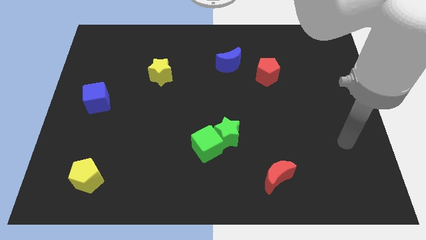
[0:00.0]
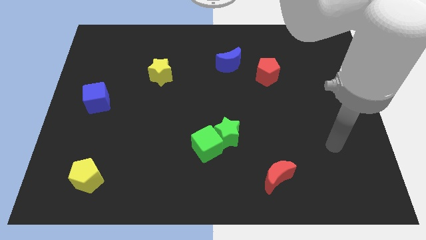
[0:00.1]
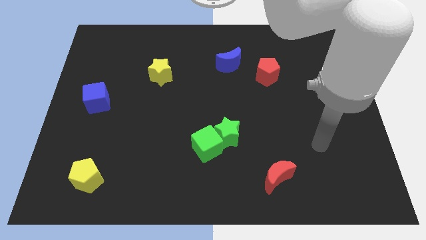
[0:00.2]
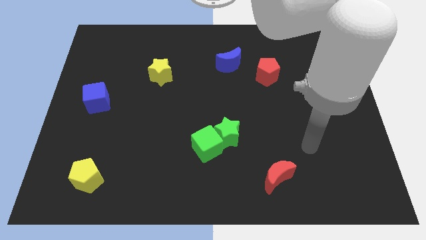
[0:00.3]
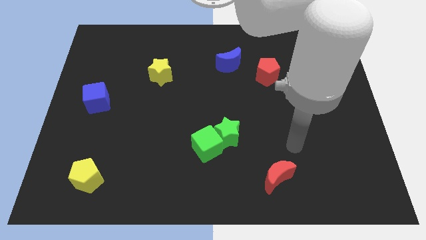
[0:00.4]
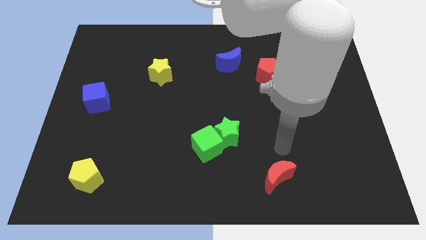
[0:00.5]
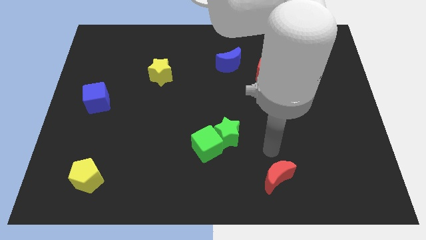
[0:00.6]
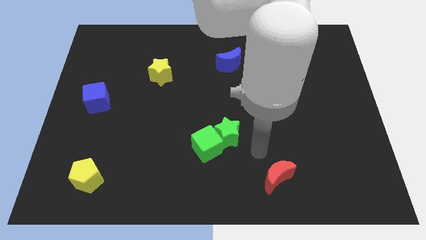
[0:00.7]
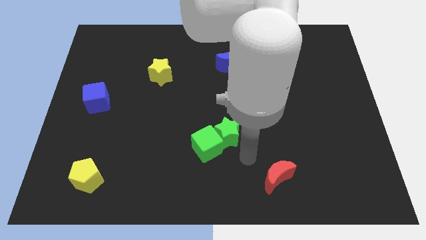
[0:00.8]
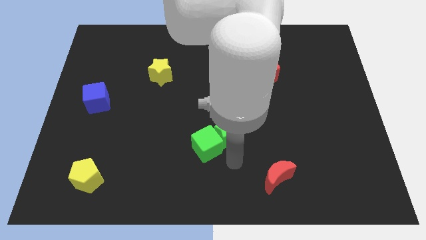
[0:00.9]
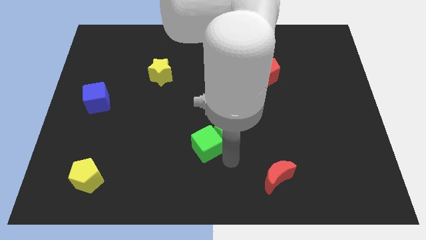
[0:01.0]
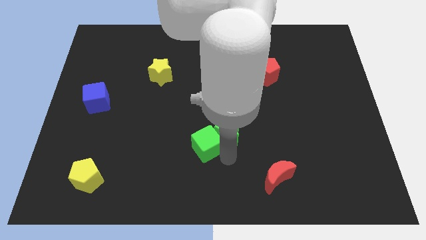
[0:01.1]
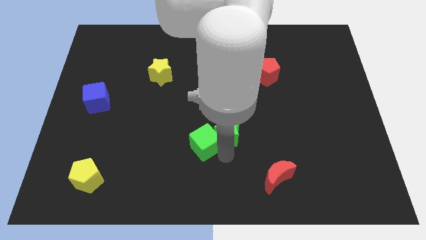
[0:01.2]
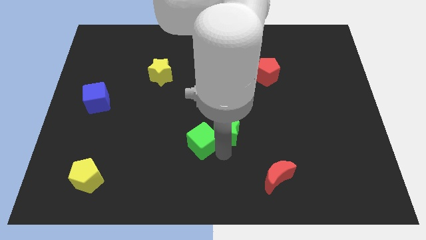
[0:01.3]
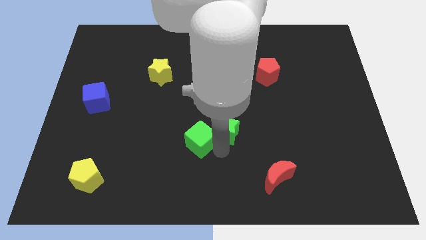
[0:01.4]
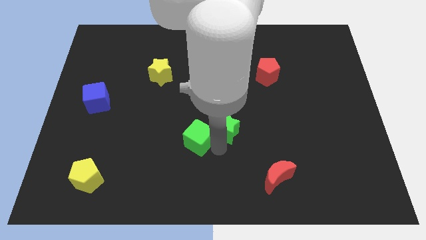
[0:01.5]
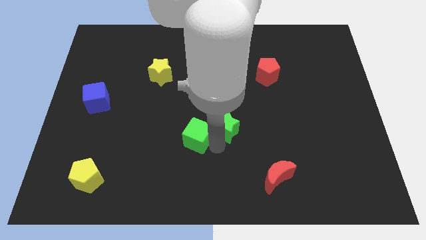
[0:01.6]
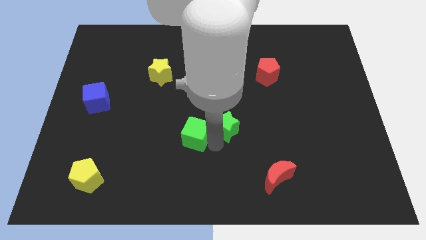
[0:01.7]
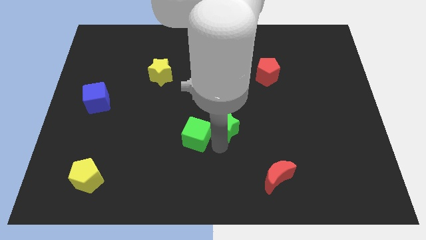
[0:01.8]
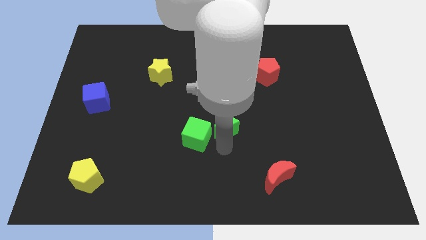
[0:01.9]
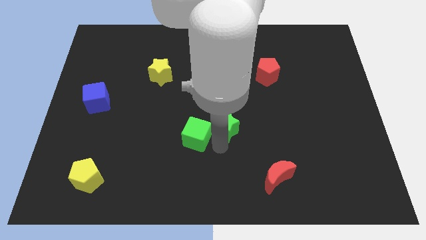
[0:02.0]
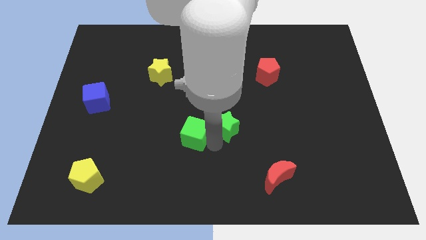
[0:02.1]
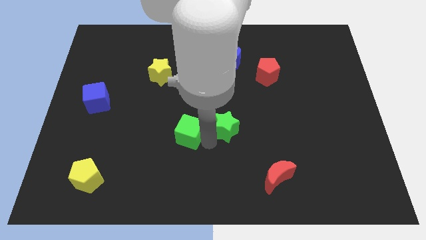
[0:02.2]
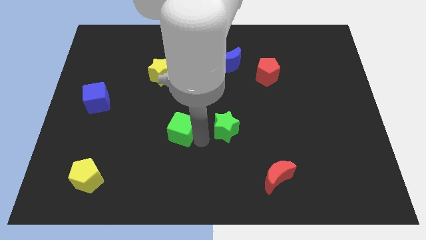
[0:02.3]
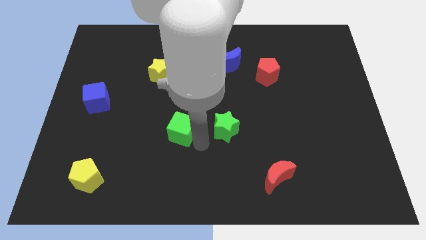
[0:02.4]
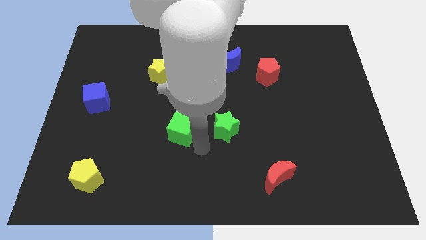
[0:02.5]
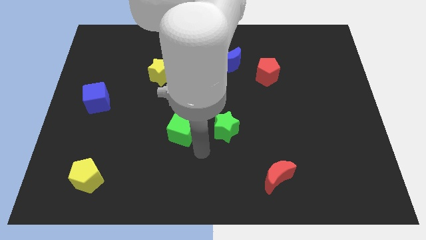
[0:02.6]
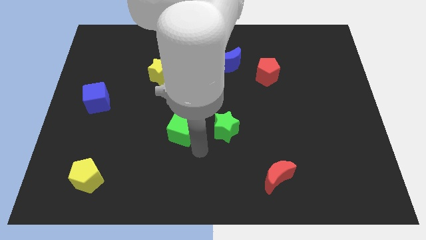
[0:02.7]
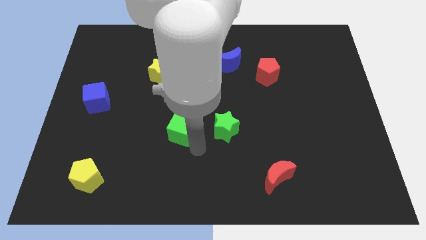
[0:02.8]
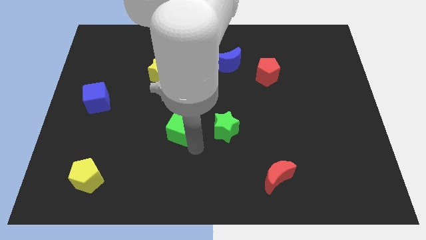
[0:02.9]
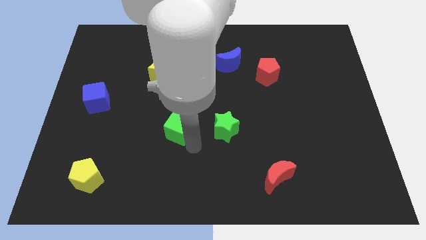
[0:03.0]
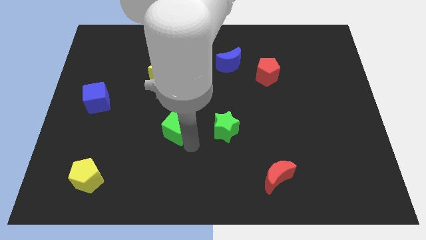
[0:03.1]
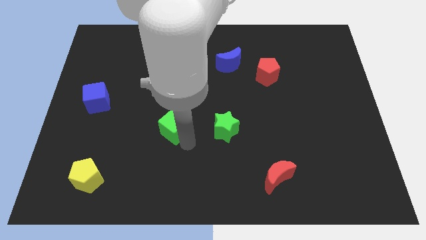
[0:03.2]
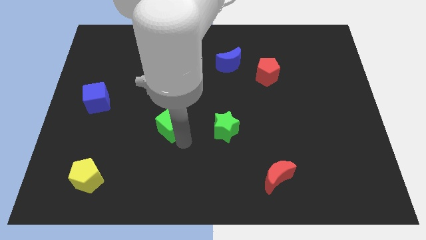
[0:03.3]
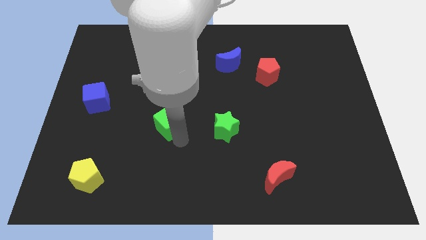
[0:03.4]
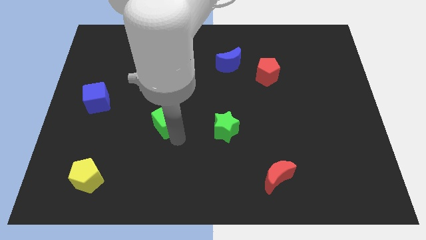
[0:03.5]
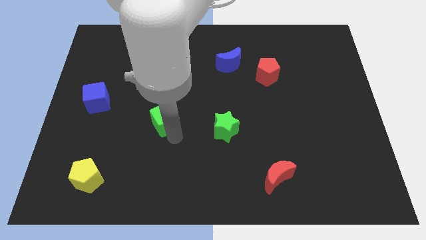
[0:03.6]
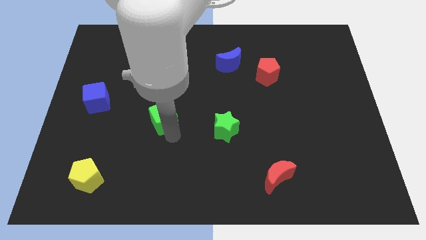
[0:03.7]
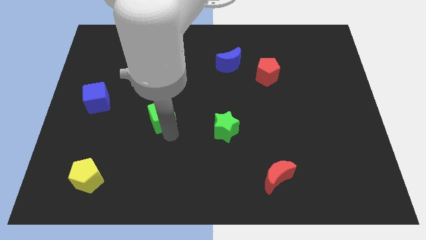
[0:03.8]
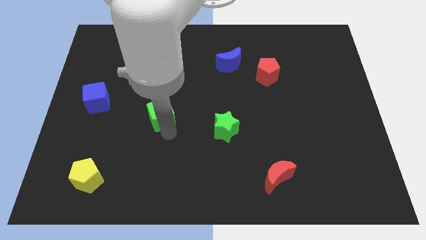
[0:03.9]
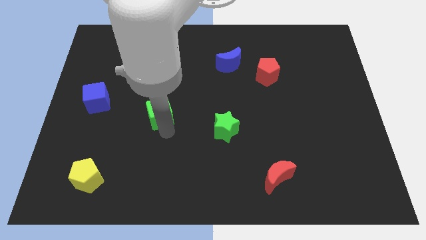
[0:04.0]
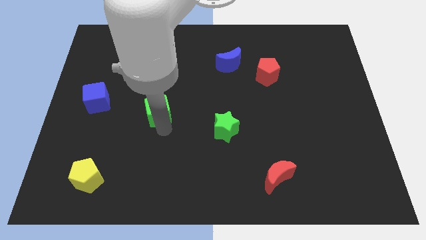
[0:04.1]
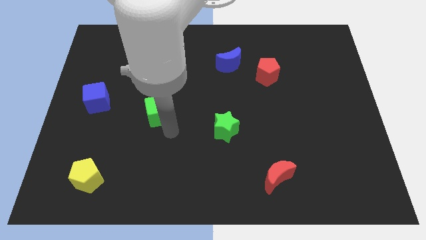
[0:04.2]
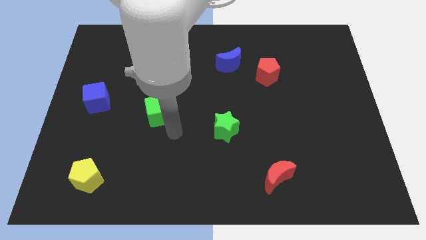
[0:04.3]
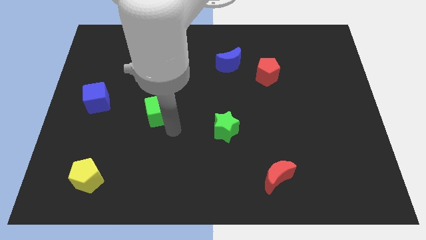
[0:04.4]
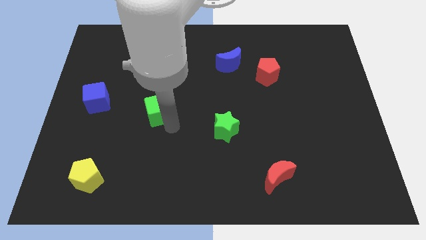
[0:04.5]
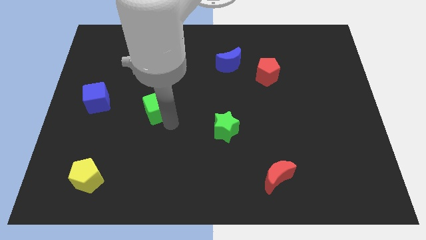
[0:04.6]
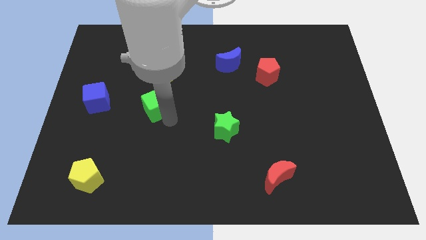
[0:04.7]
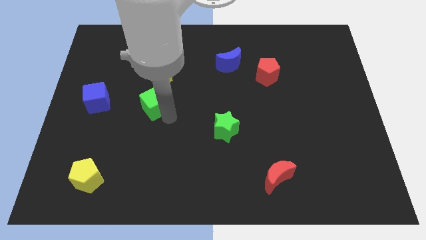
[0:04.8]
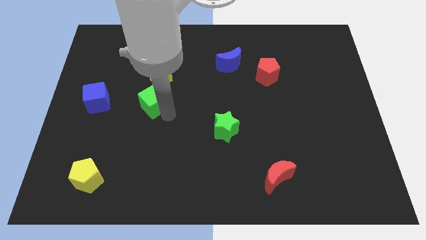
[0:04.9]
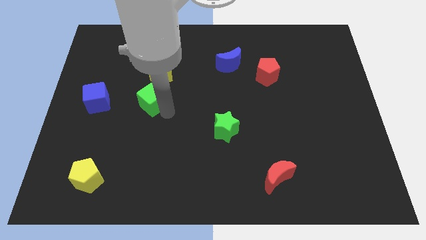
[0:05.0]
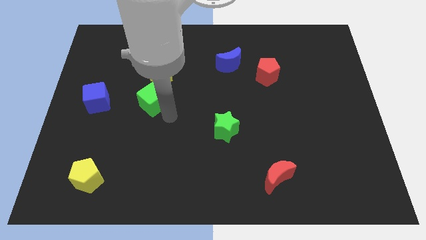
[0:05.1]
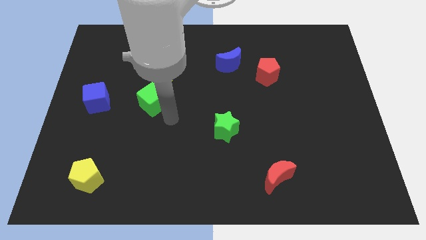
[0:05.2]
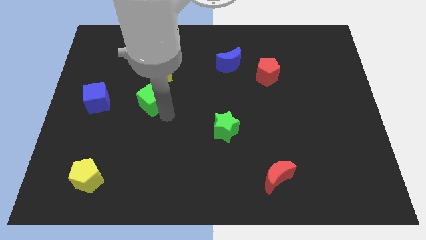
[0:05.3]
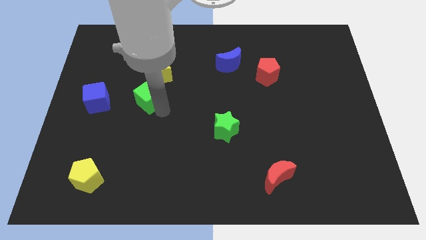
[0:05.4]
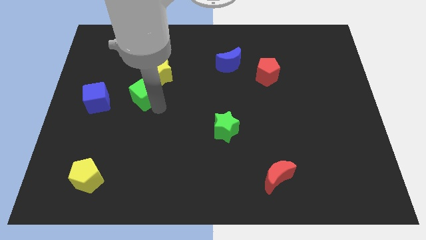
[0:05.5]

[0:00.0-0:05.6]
push the green cube upwards and to the left diagonally

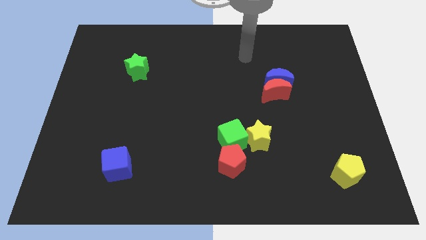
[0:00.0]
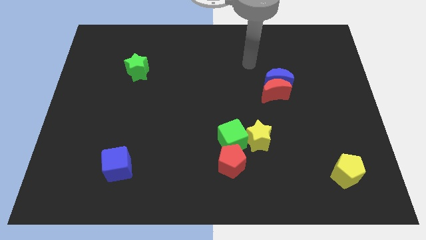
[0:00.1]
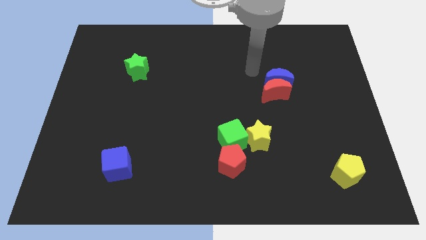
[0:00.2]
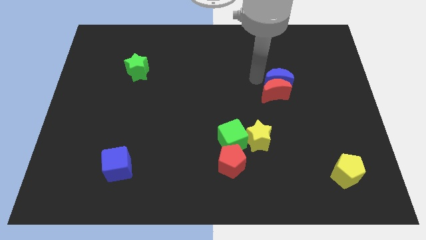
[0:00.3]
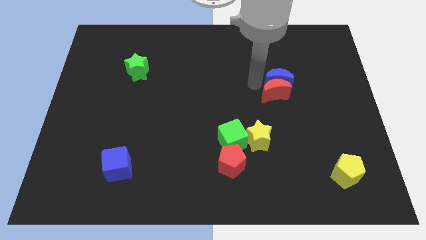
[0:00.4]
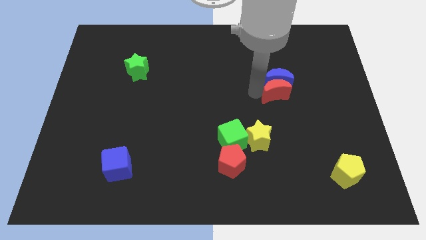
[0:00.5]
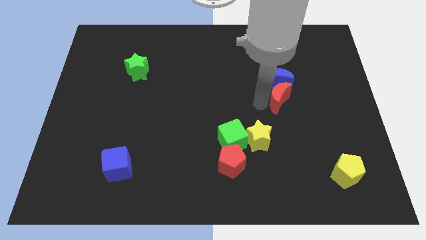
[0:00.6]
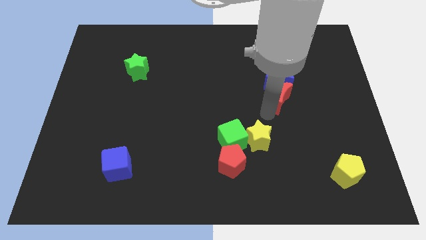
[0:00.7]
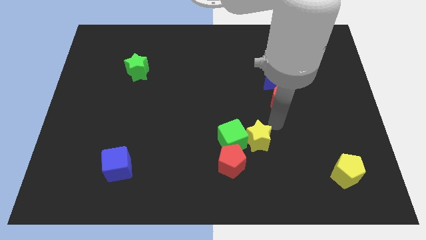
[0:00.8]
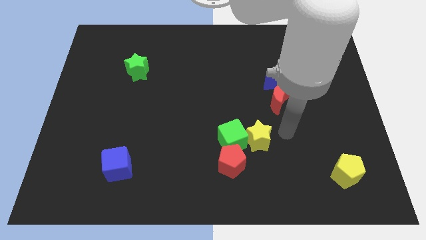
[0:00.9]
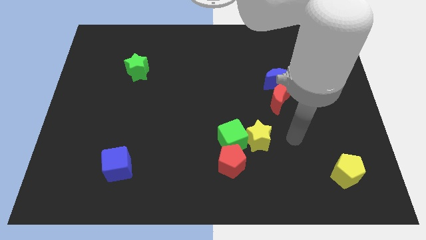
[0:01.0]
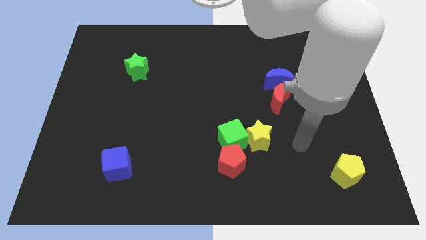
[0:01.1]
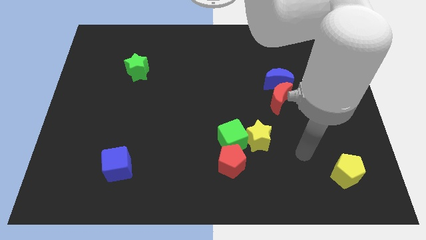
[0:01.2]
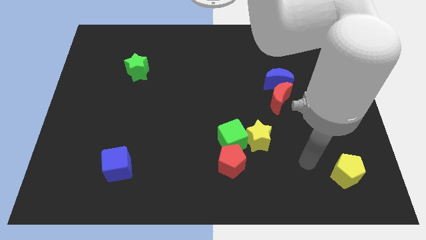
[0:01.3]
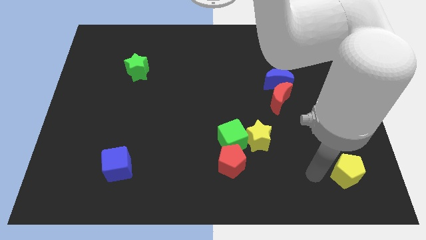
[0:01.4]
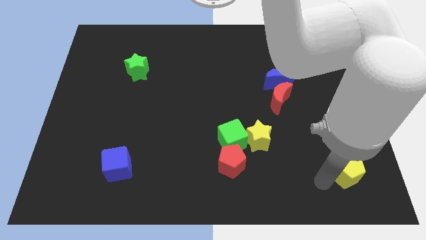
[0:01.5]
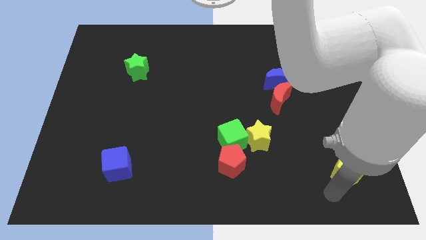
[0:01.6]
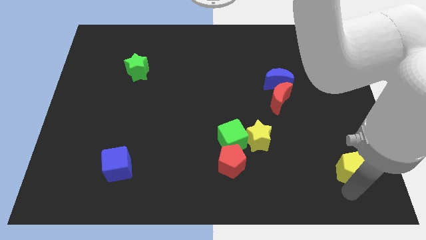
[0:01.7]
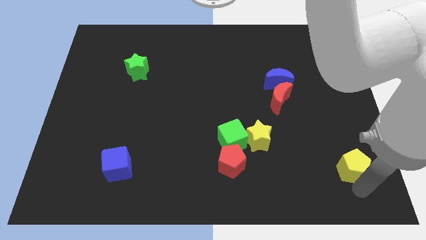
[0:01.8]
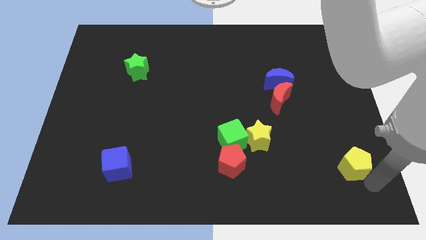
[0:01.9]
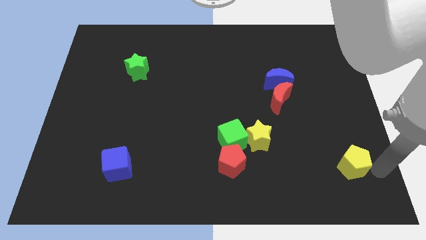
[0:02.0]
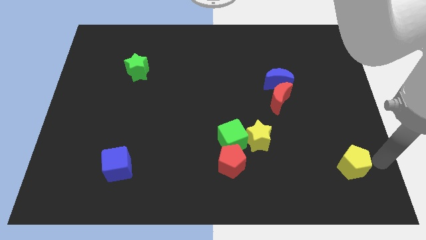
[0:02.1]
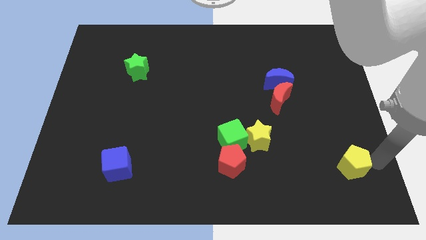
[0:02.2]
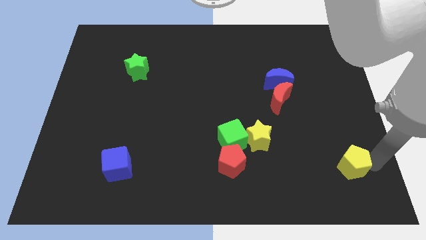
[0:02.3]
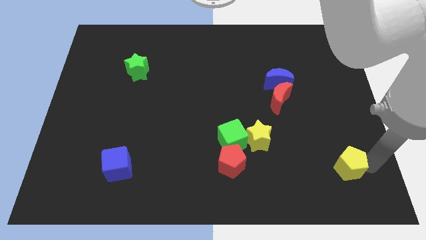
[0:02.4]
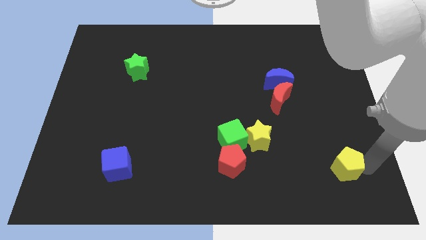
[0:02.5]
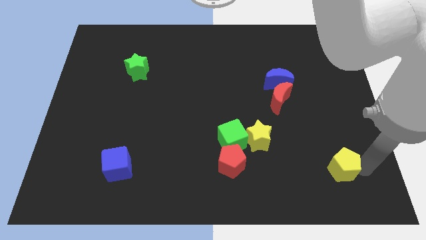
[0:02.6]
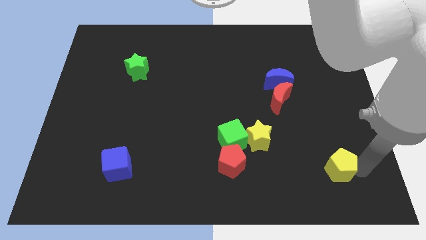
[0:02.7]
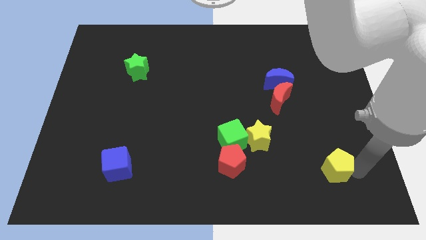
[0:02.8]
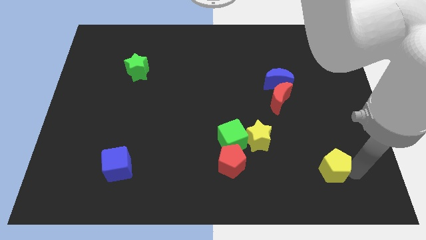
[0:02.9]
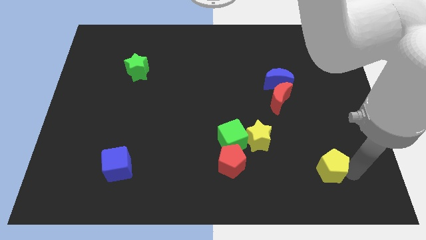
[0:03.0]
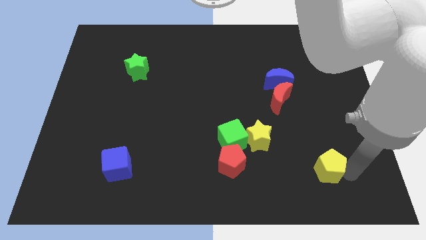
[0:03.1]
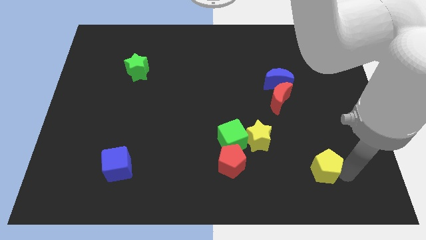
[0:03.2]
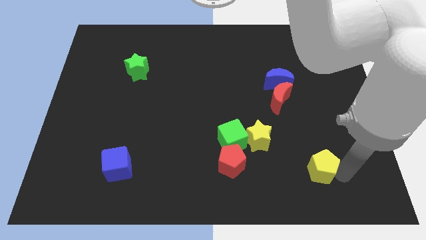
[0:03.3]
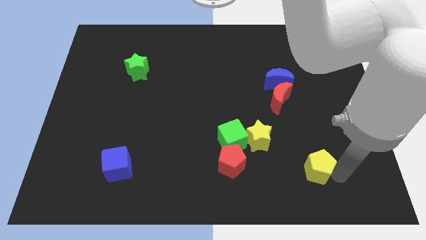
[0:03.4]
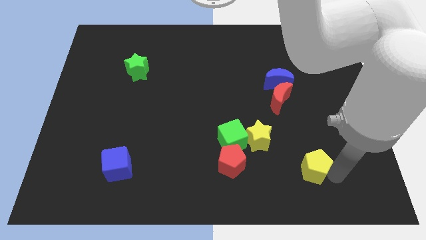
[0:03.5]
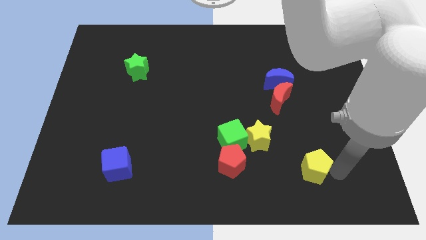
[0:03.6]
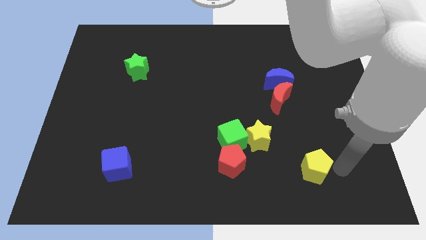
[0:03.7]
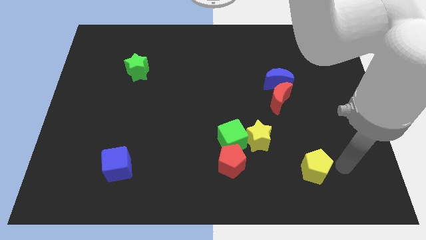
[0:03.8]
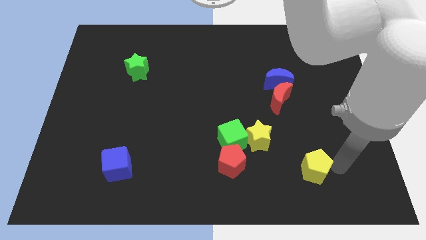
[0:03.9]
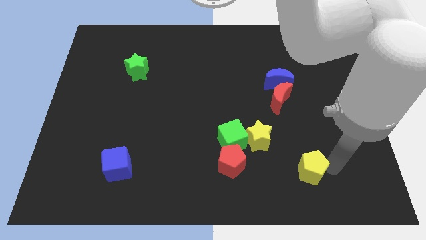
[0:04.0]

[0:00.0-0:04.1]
push the yellow pentagon a little to the left
